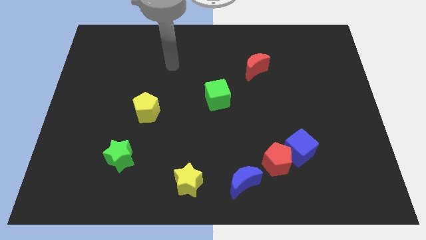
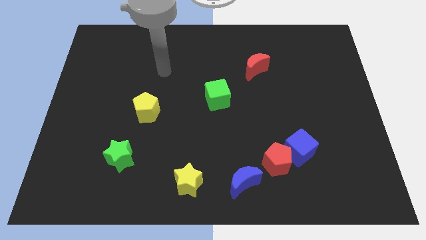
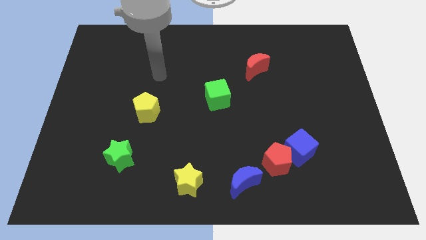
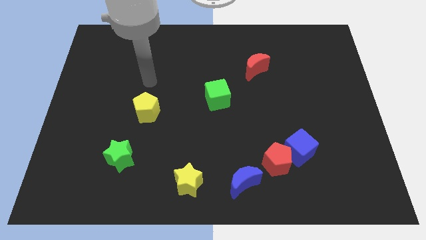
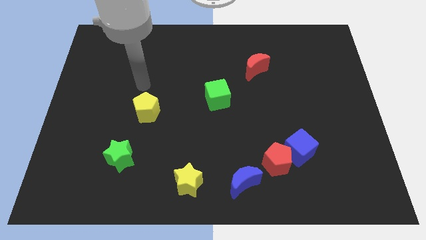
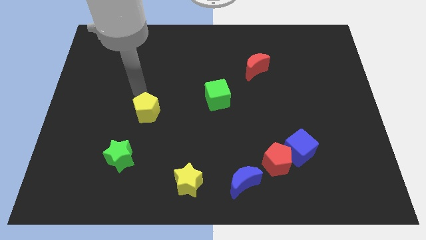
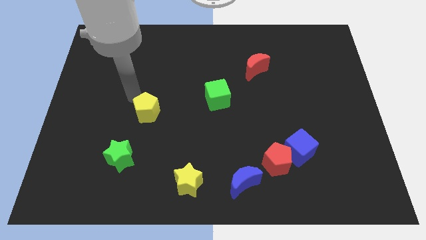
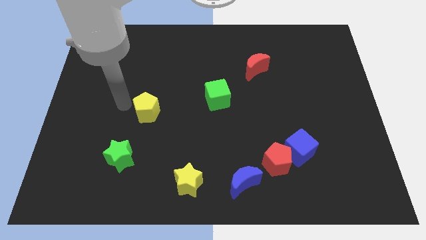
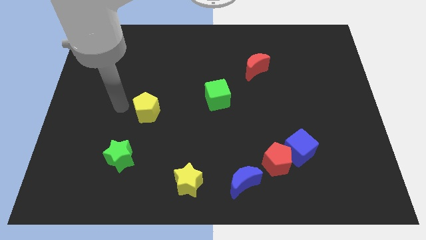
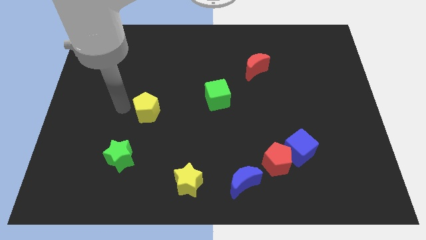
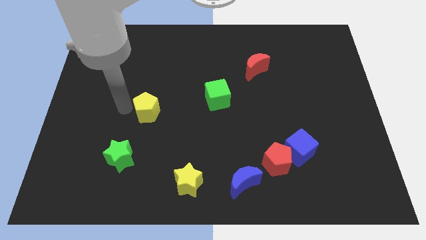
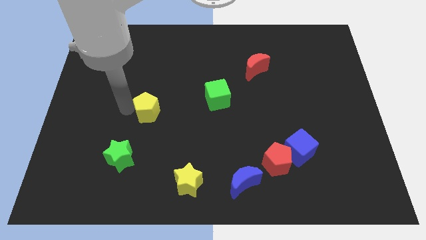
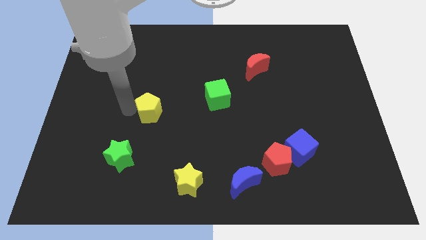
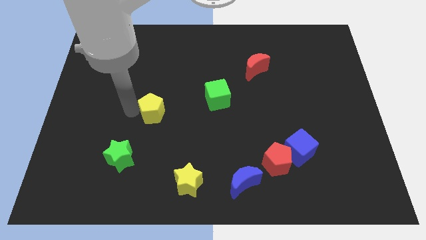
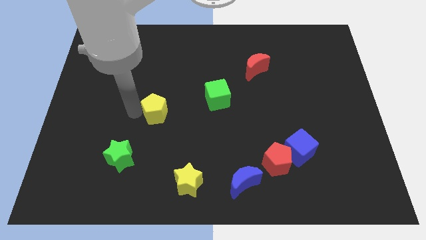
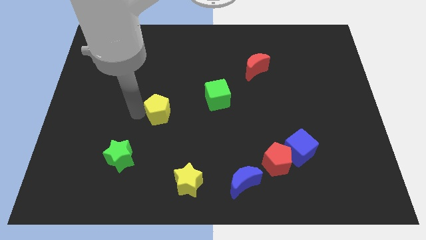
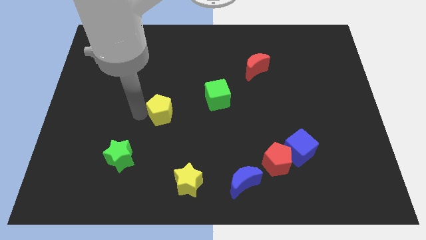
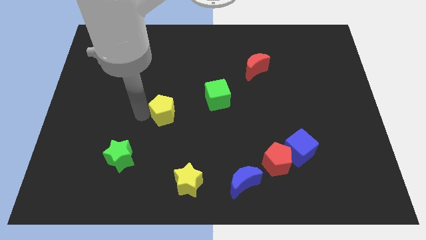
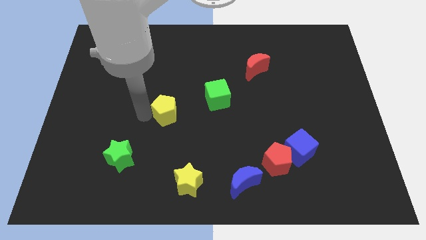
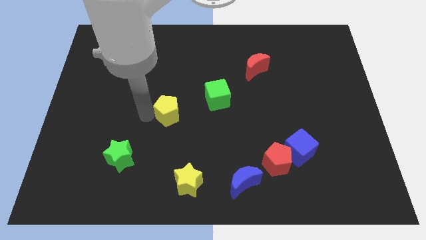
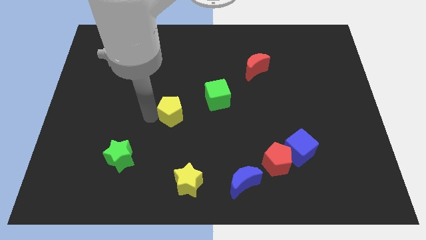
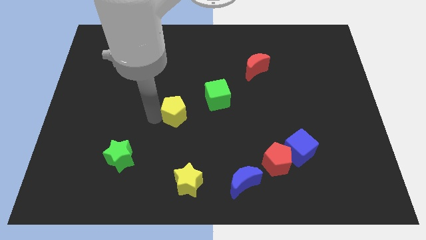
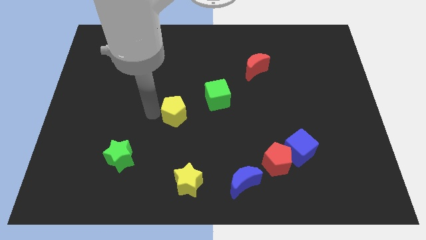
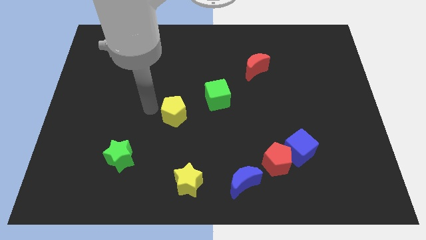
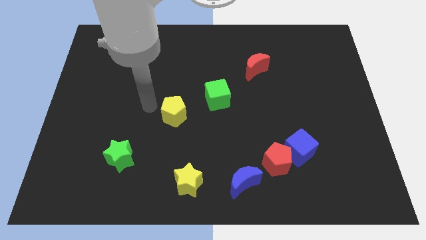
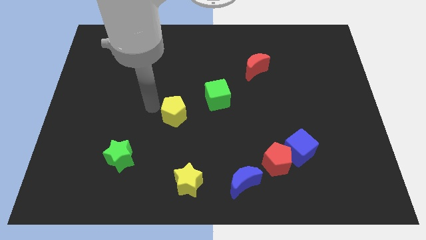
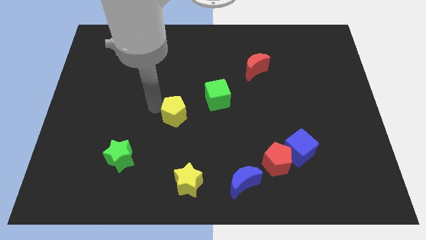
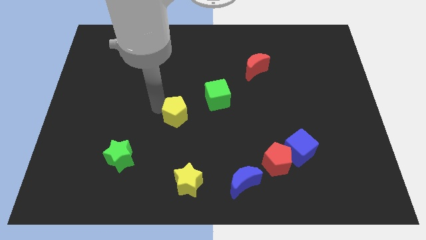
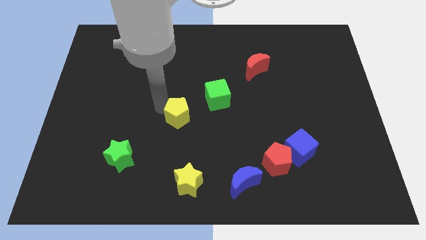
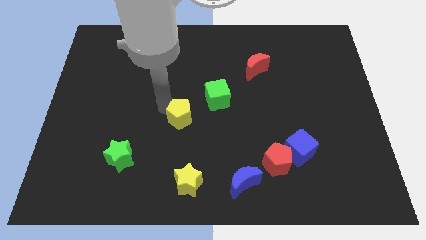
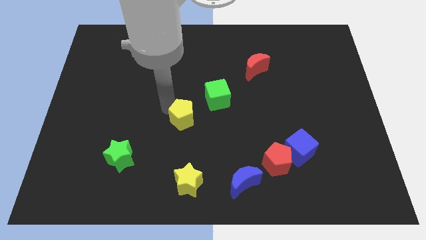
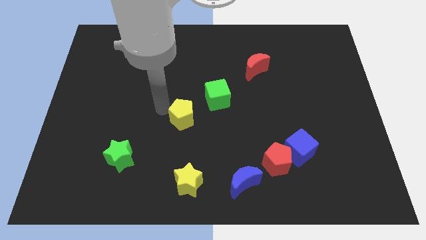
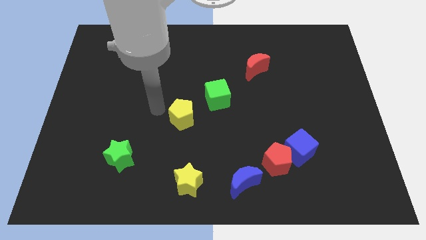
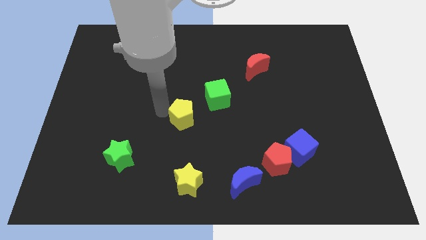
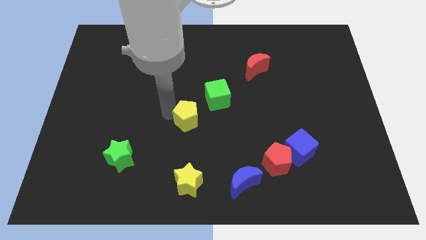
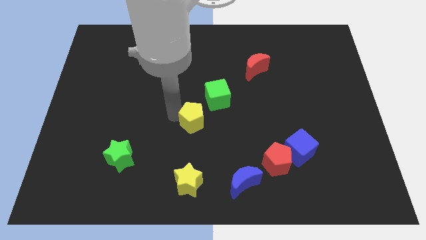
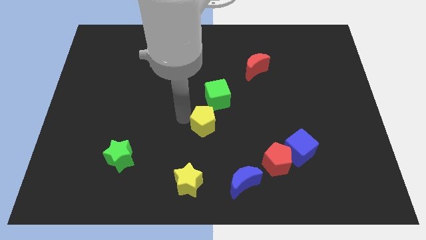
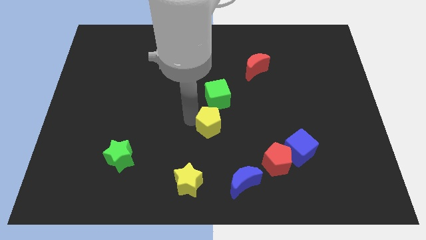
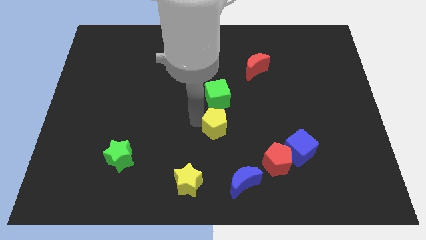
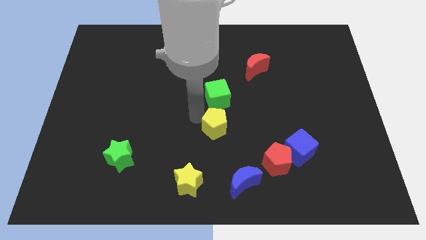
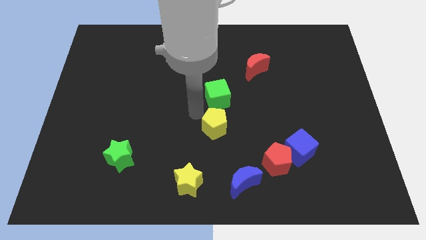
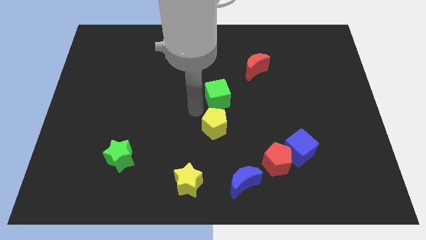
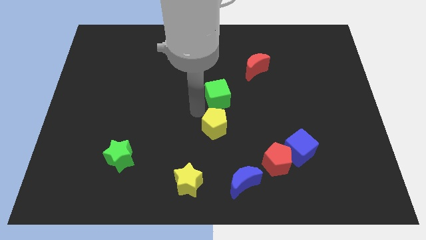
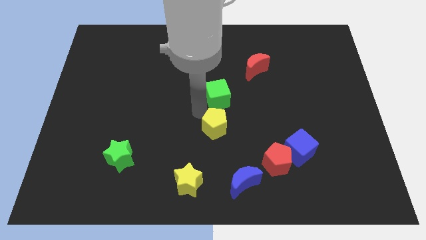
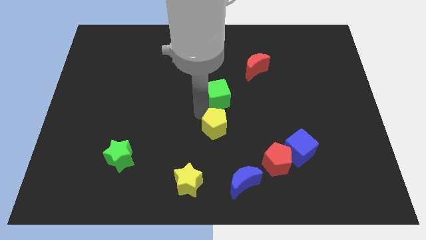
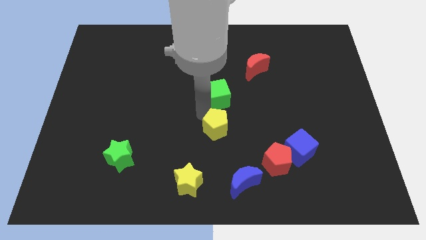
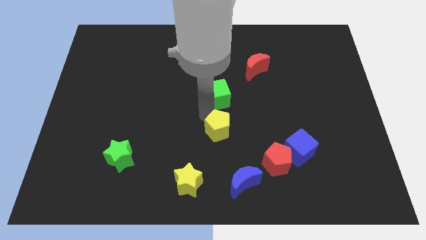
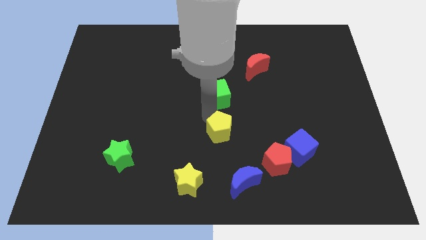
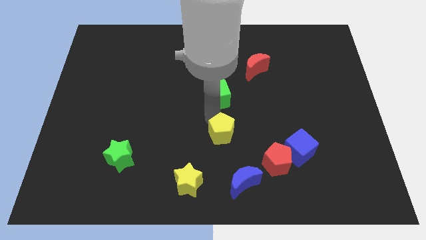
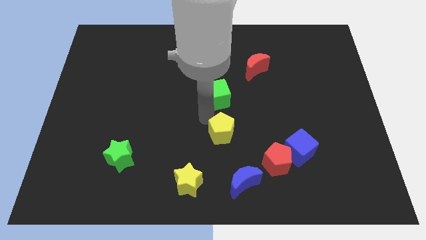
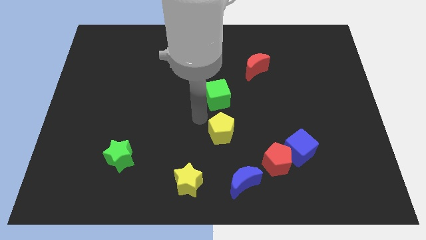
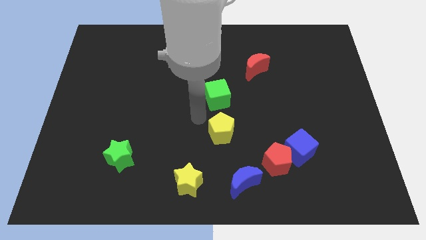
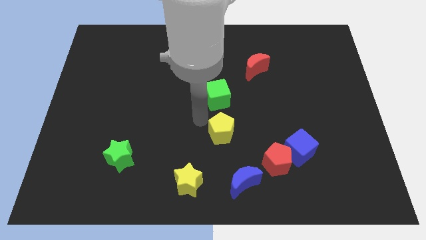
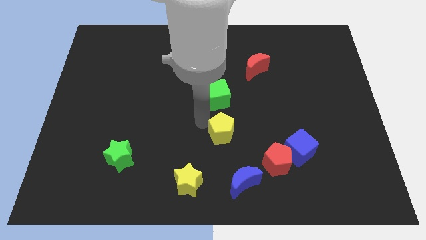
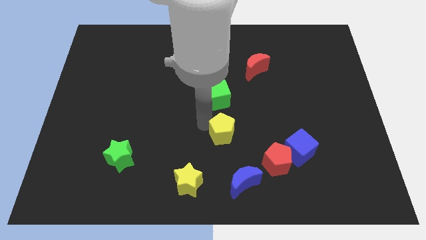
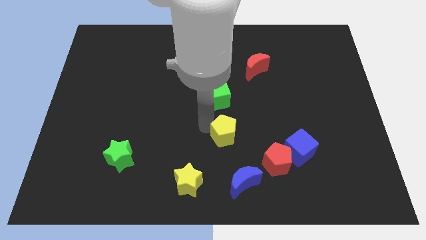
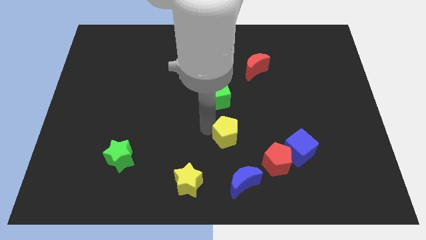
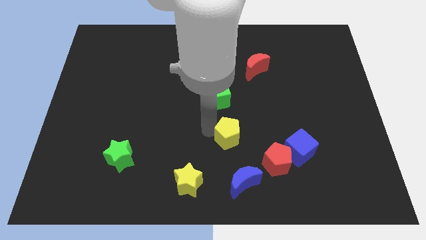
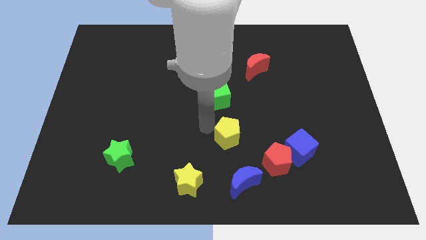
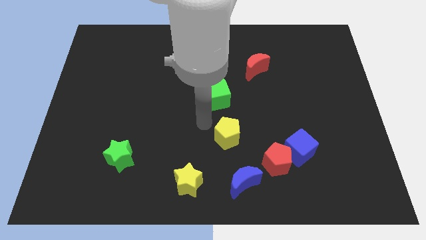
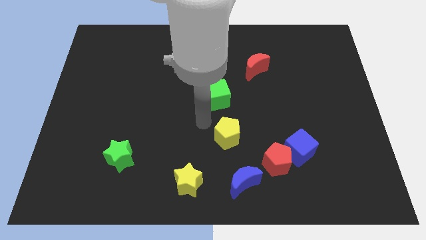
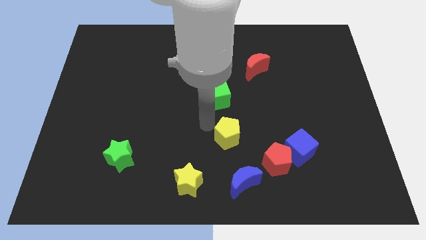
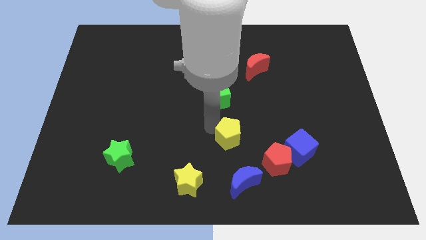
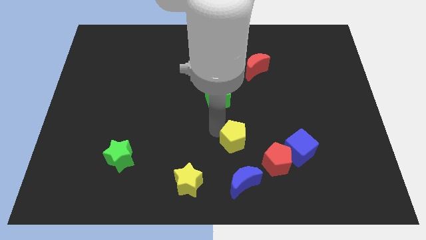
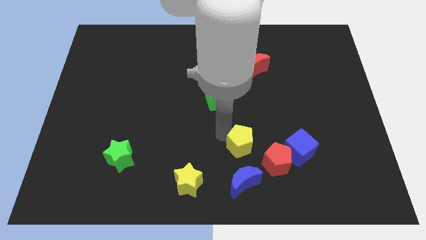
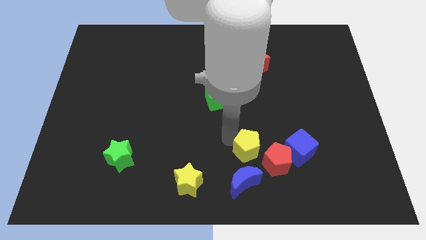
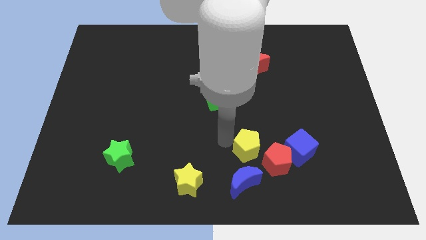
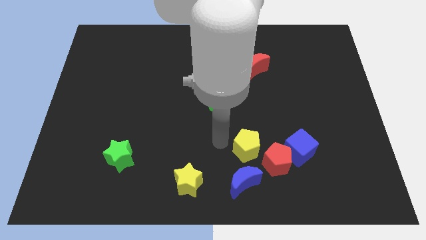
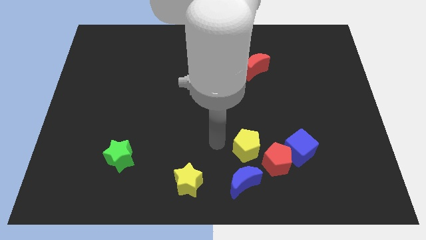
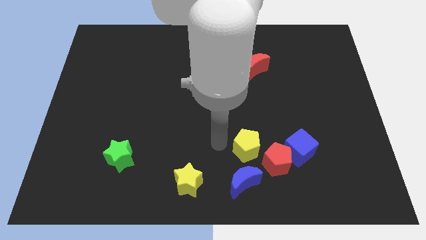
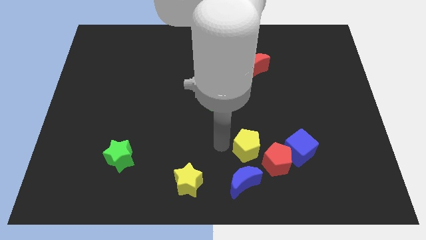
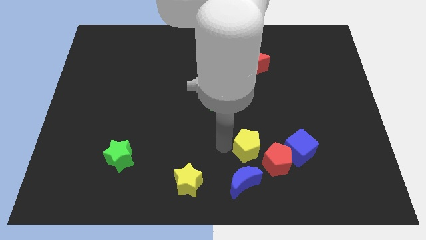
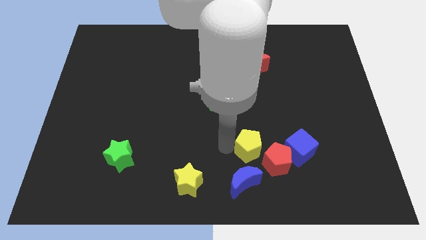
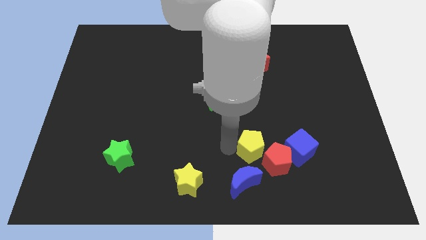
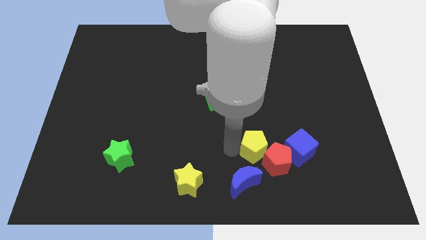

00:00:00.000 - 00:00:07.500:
move the yellow pentagon towards the red pentagon
